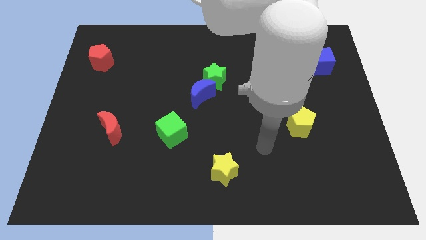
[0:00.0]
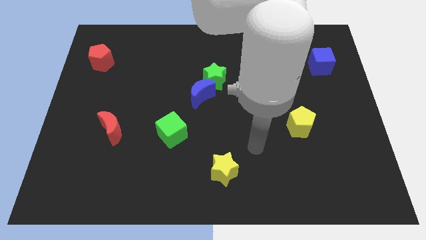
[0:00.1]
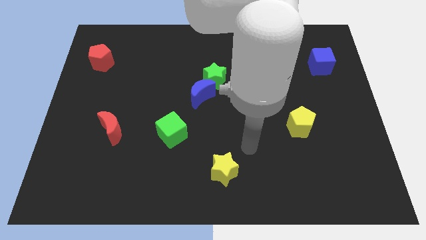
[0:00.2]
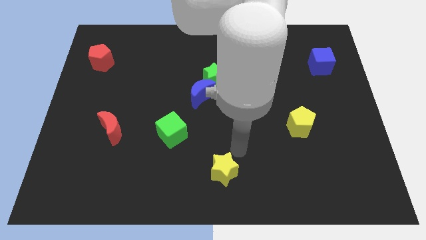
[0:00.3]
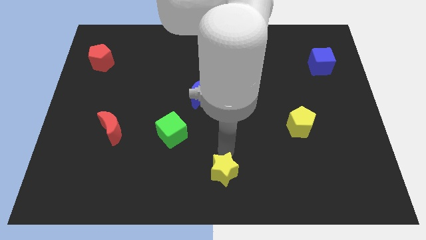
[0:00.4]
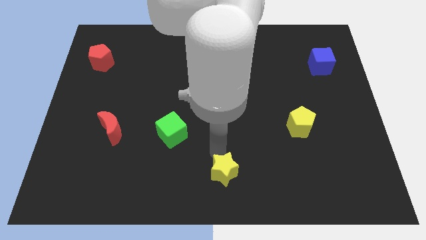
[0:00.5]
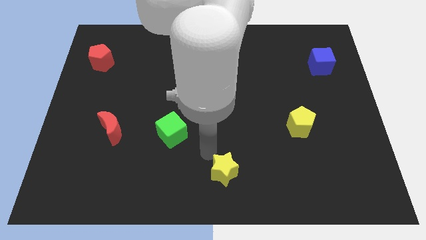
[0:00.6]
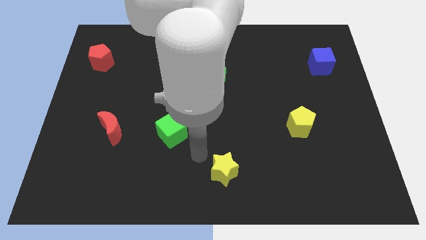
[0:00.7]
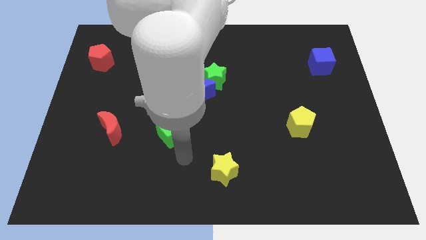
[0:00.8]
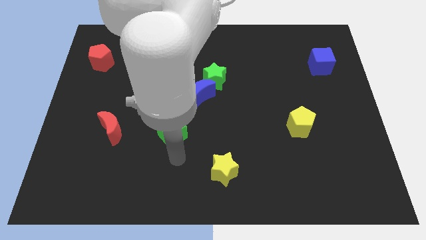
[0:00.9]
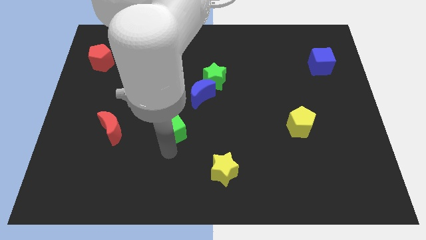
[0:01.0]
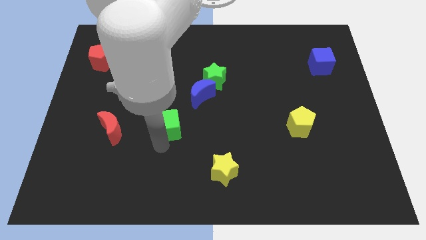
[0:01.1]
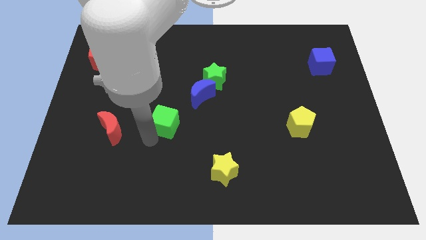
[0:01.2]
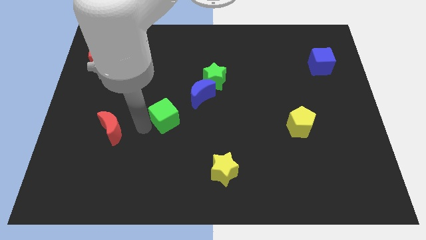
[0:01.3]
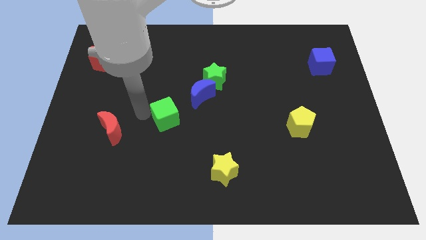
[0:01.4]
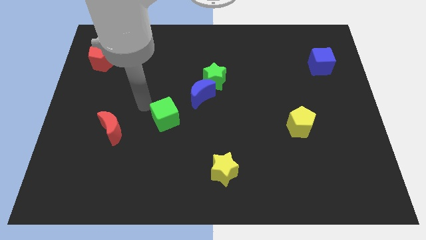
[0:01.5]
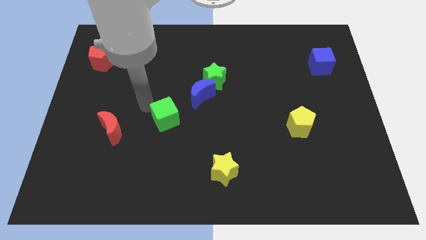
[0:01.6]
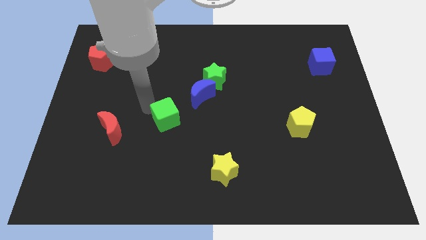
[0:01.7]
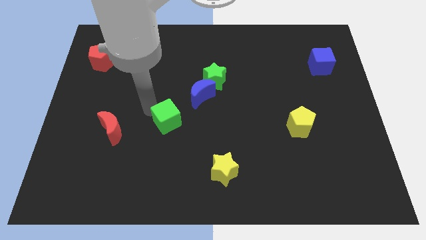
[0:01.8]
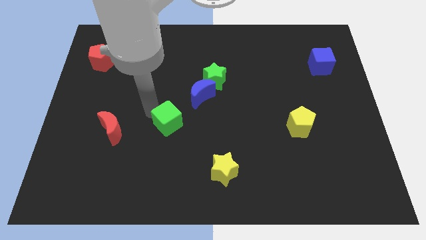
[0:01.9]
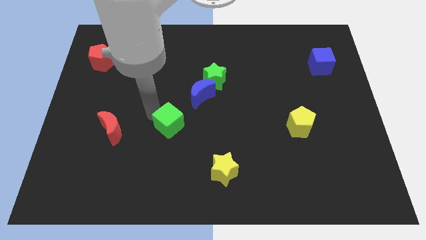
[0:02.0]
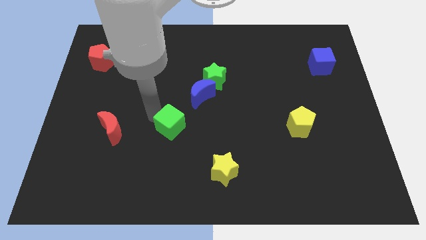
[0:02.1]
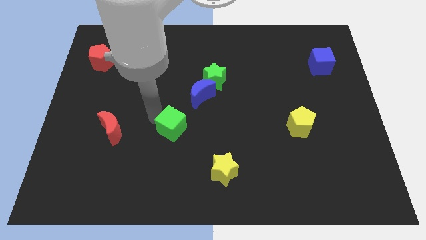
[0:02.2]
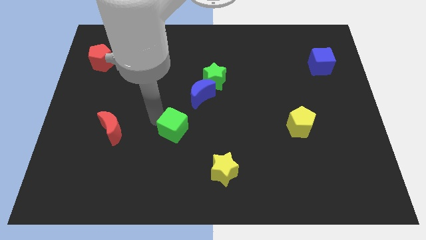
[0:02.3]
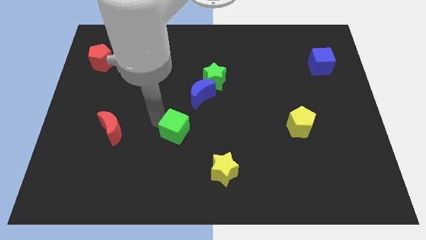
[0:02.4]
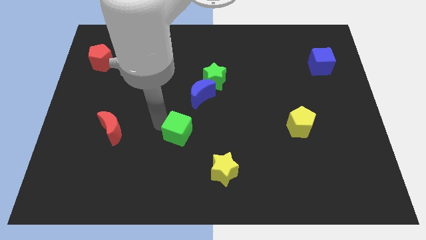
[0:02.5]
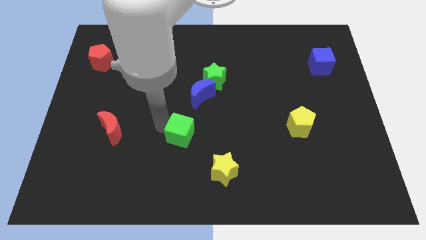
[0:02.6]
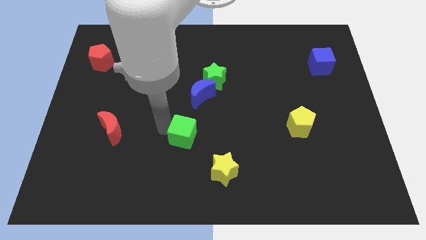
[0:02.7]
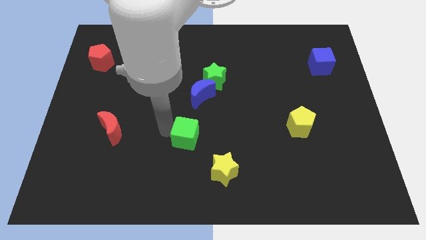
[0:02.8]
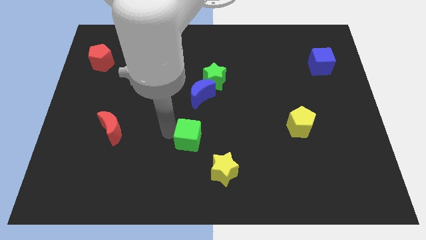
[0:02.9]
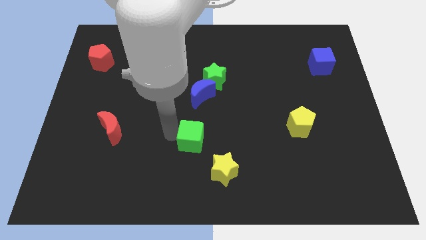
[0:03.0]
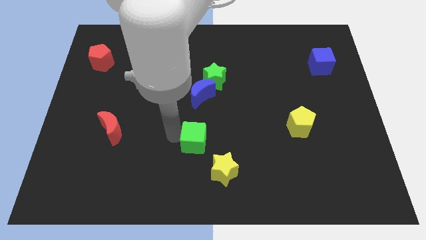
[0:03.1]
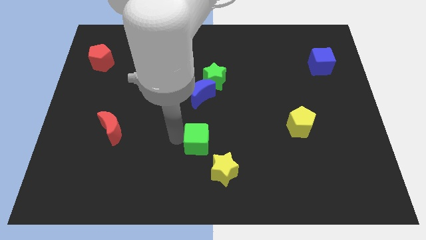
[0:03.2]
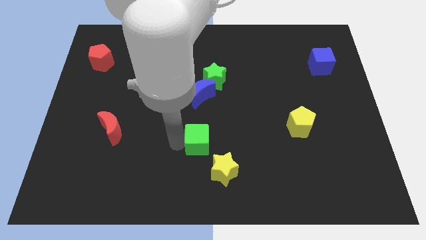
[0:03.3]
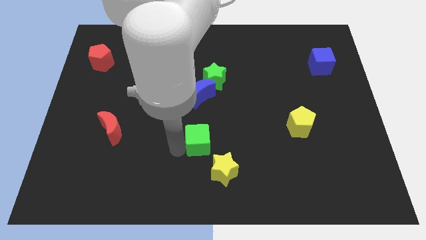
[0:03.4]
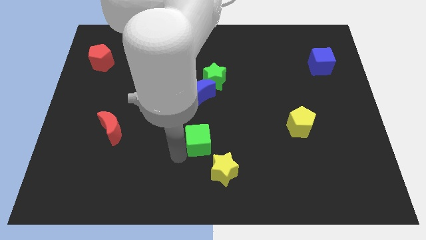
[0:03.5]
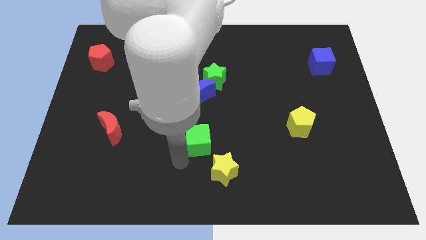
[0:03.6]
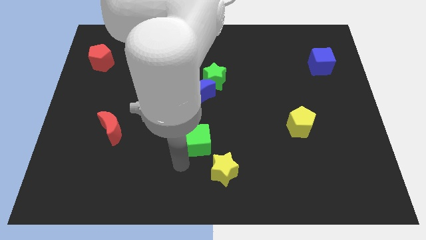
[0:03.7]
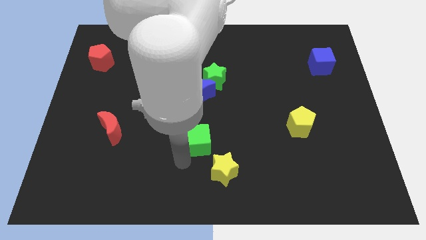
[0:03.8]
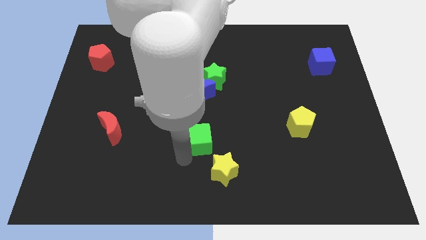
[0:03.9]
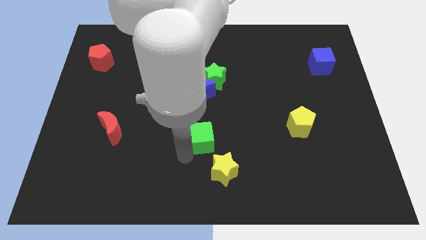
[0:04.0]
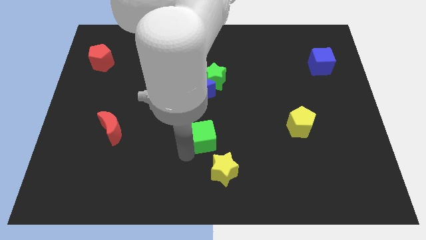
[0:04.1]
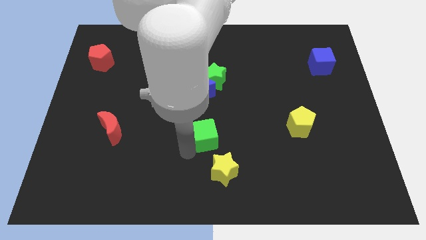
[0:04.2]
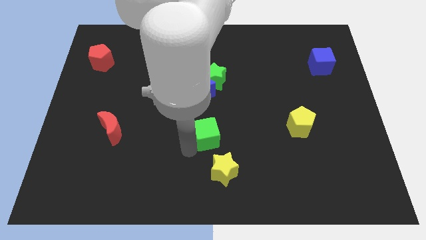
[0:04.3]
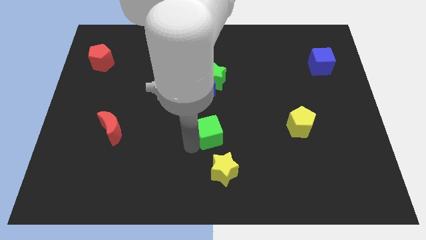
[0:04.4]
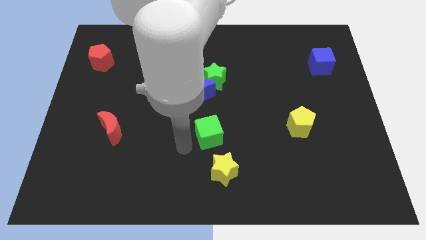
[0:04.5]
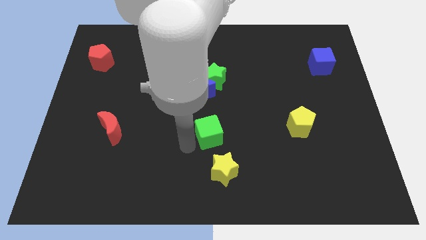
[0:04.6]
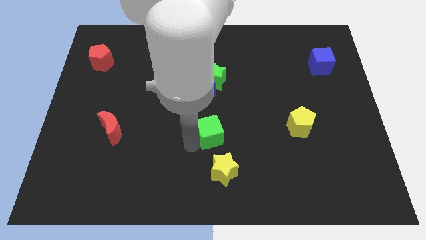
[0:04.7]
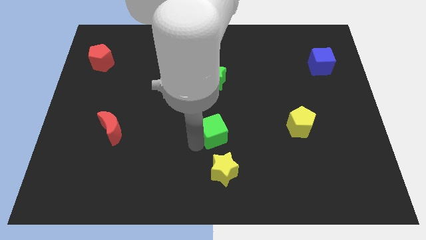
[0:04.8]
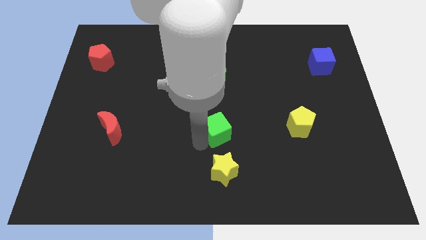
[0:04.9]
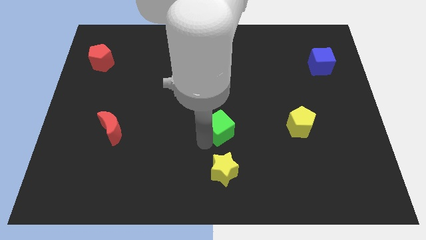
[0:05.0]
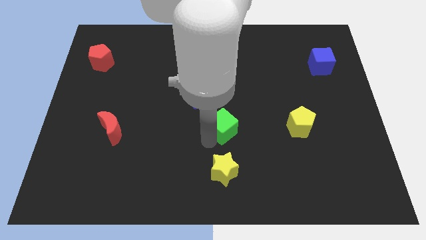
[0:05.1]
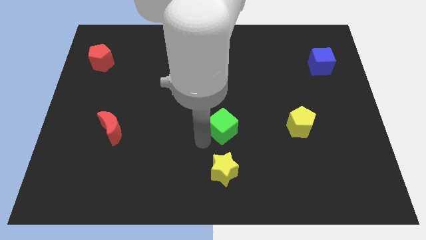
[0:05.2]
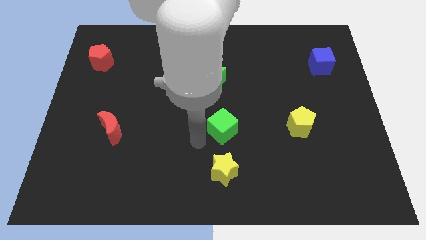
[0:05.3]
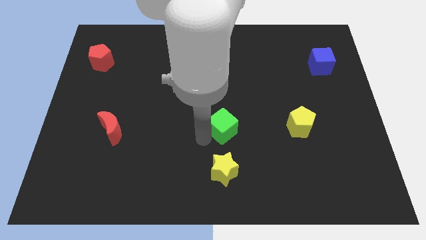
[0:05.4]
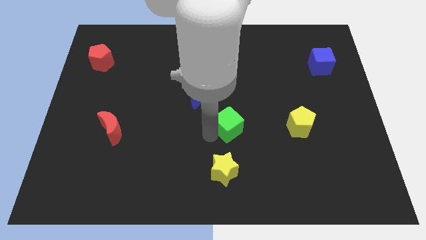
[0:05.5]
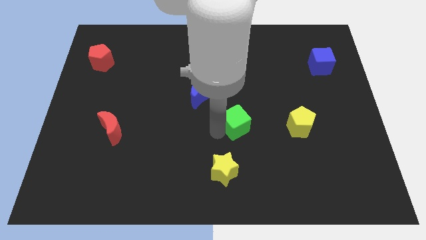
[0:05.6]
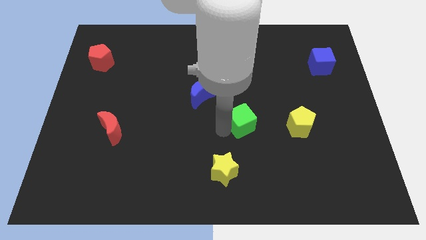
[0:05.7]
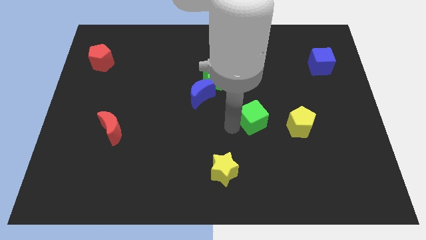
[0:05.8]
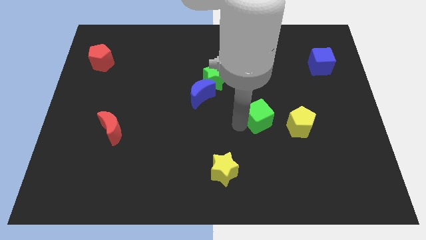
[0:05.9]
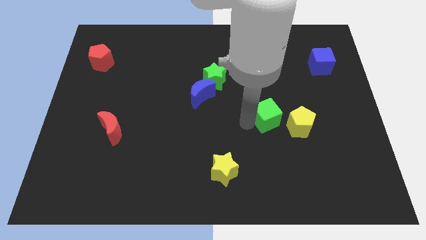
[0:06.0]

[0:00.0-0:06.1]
put the green cube to the top left of the yellow pentagon

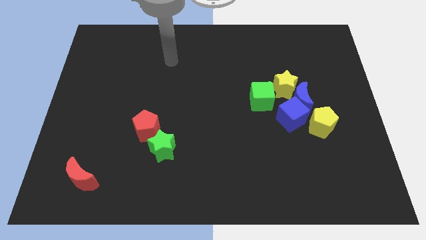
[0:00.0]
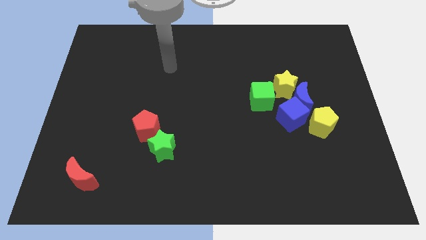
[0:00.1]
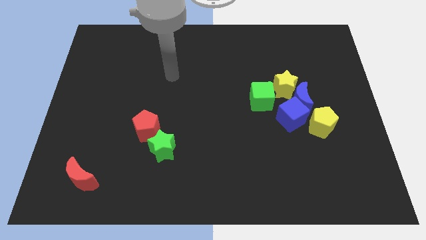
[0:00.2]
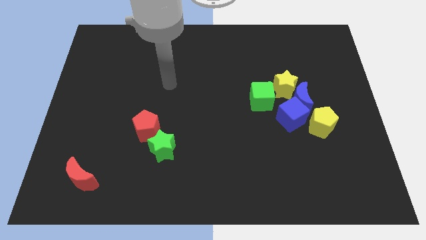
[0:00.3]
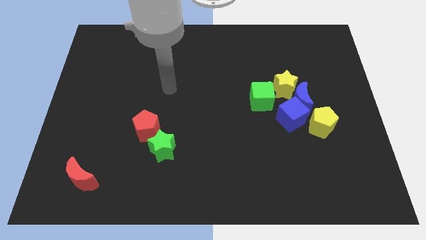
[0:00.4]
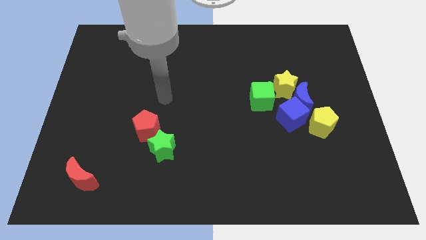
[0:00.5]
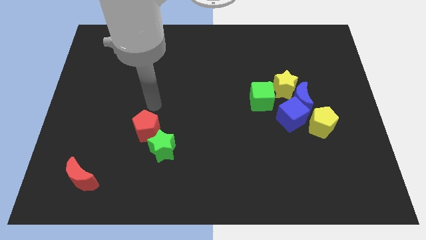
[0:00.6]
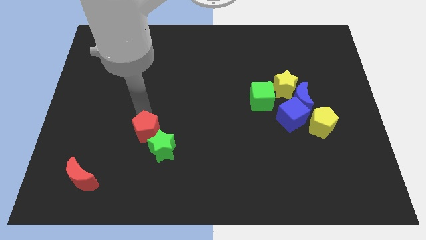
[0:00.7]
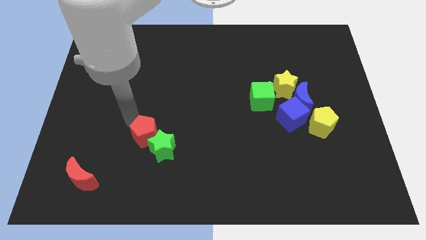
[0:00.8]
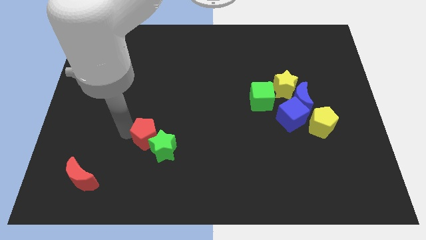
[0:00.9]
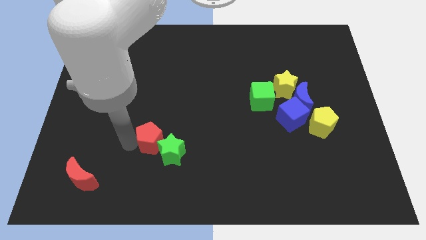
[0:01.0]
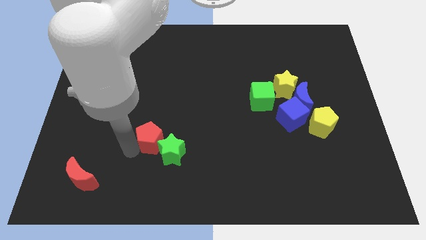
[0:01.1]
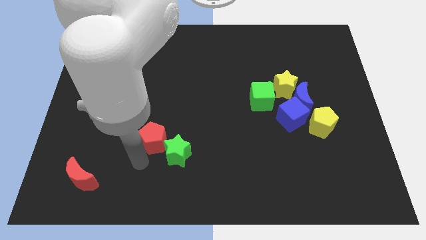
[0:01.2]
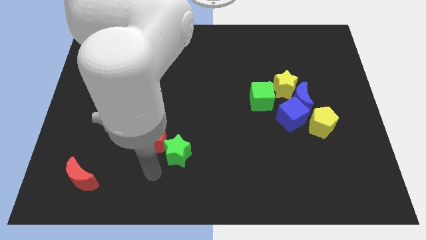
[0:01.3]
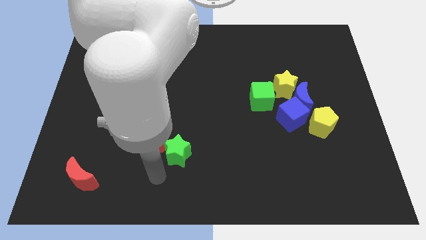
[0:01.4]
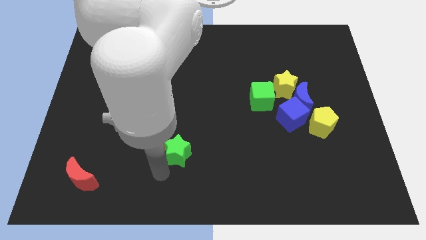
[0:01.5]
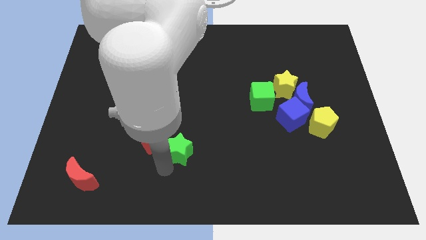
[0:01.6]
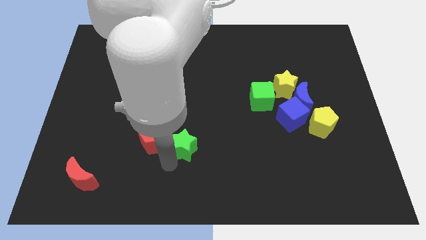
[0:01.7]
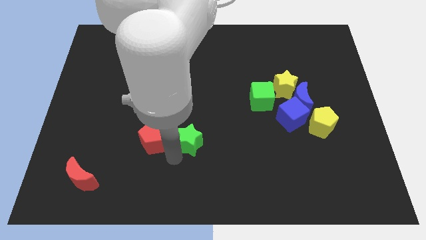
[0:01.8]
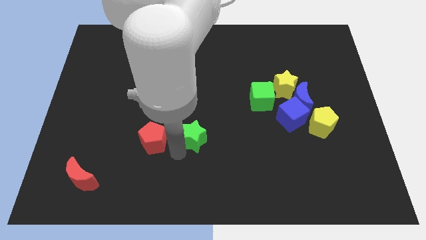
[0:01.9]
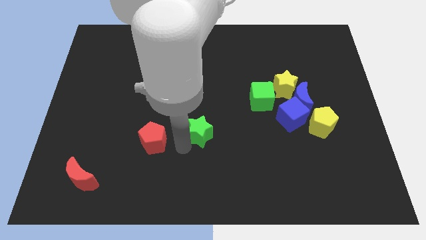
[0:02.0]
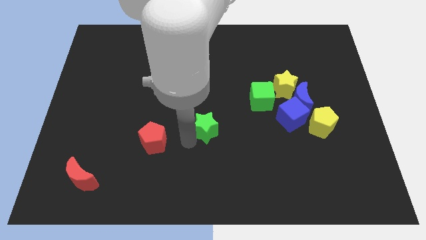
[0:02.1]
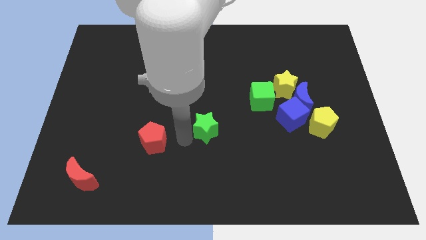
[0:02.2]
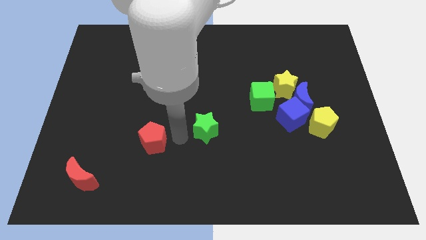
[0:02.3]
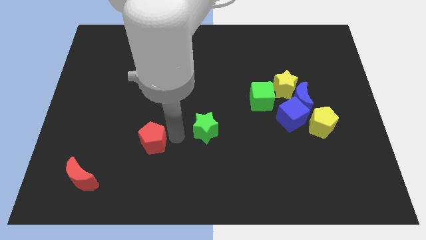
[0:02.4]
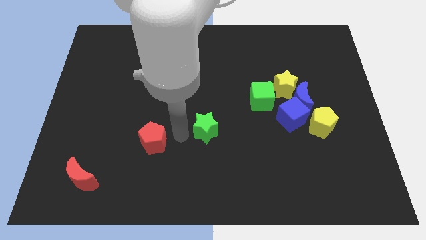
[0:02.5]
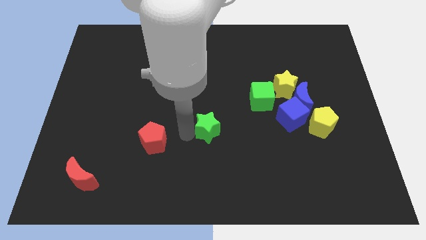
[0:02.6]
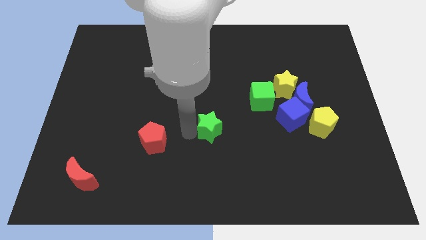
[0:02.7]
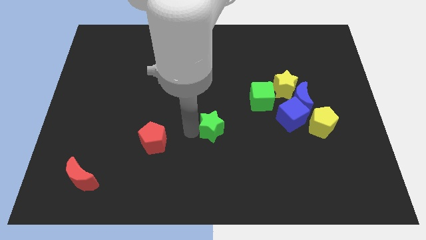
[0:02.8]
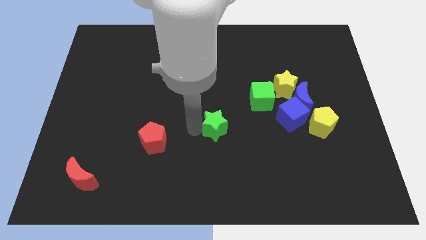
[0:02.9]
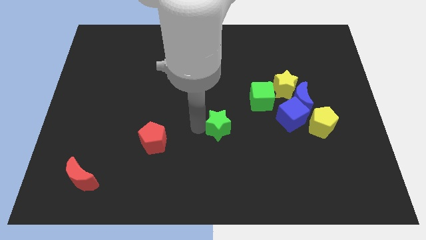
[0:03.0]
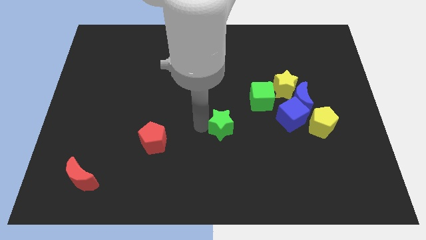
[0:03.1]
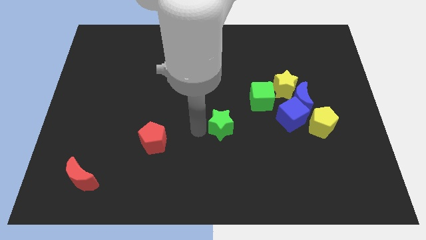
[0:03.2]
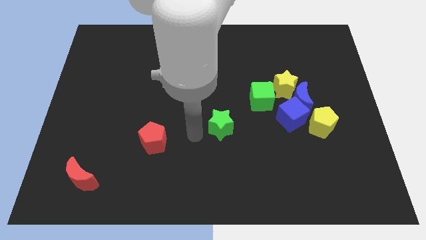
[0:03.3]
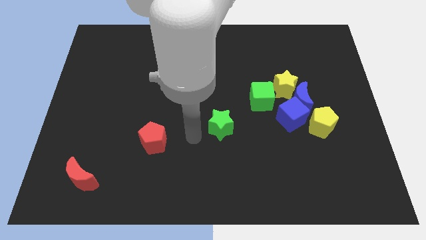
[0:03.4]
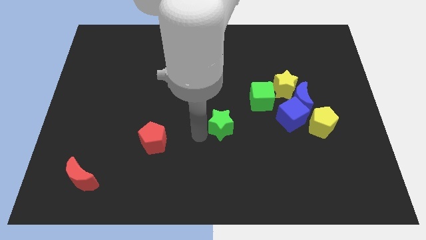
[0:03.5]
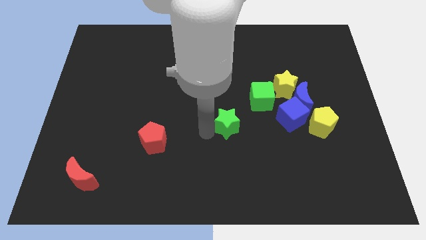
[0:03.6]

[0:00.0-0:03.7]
slide the green star left of the blue cube
